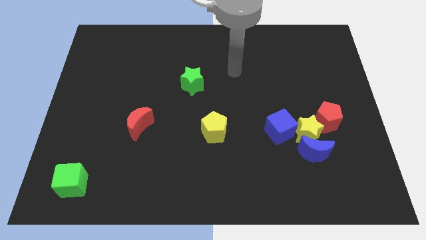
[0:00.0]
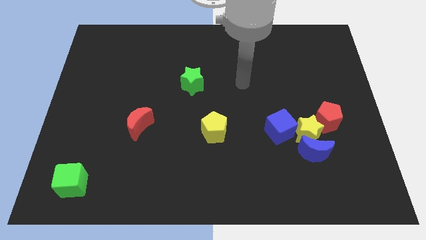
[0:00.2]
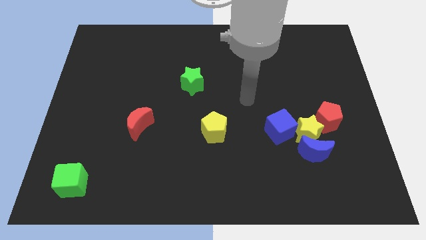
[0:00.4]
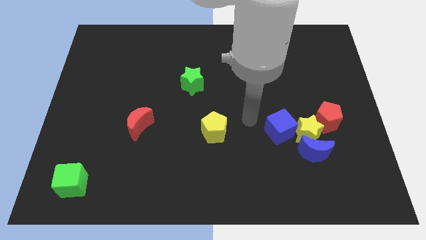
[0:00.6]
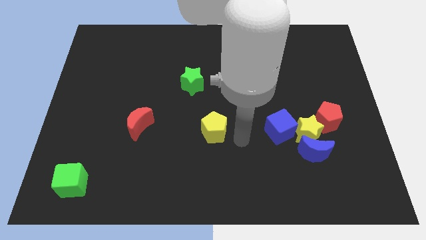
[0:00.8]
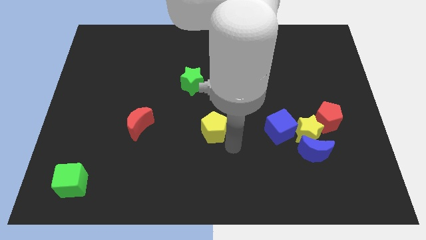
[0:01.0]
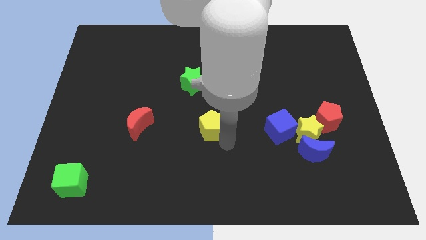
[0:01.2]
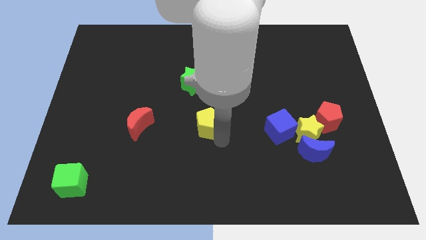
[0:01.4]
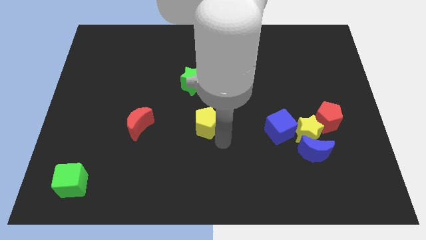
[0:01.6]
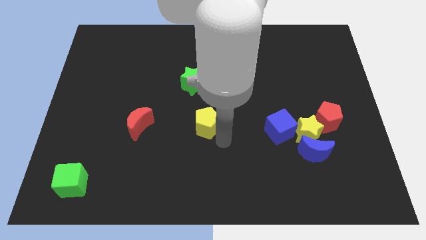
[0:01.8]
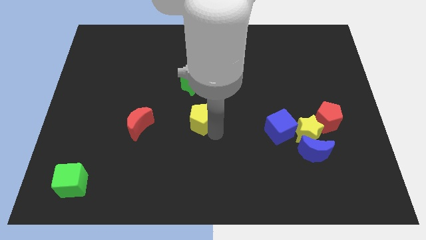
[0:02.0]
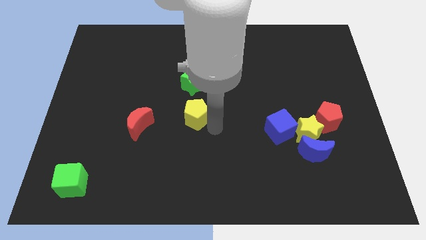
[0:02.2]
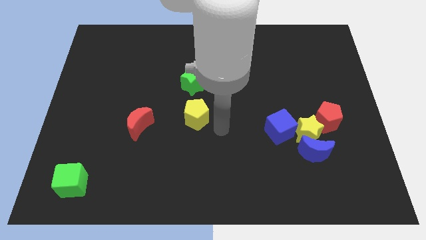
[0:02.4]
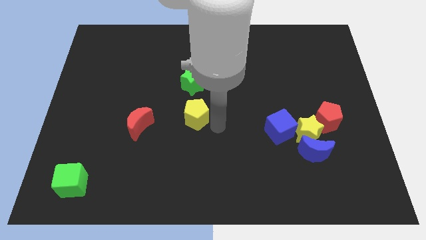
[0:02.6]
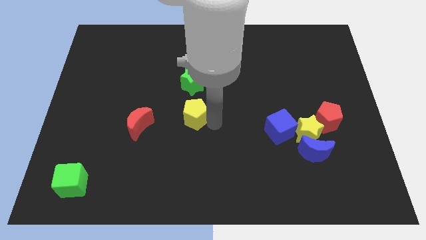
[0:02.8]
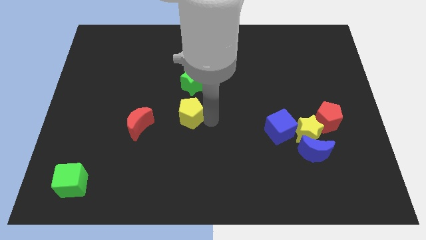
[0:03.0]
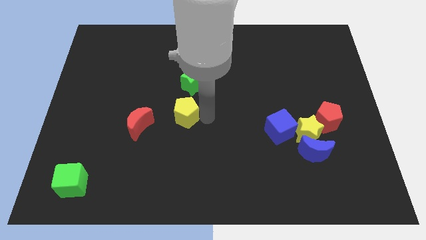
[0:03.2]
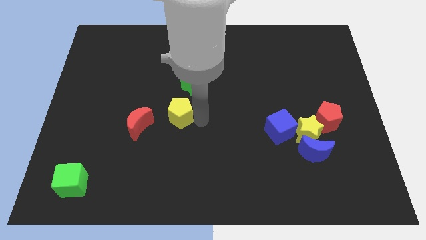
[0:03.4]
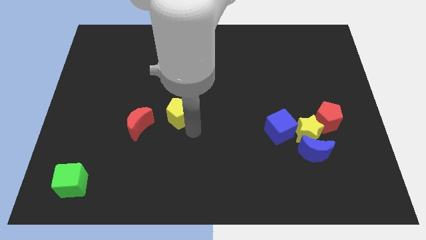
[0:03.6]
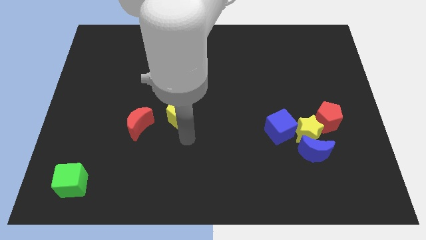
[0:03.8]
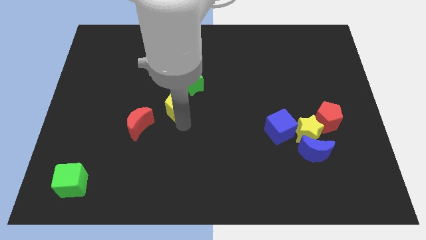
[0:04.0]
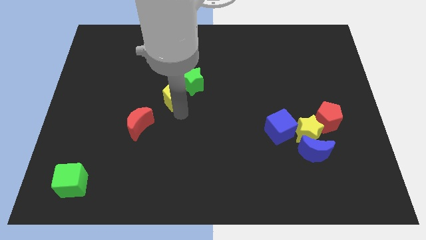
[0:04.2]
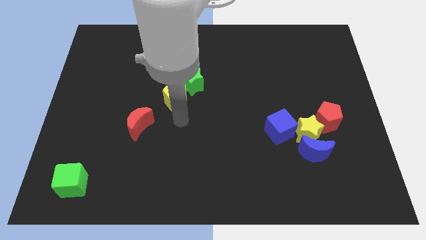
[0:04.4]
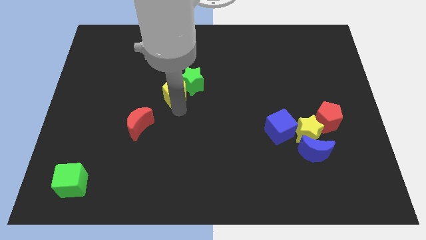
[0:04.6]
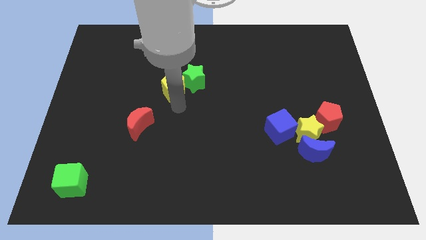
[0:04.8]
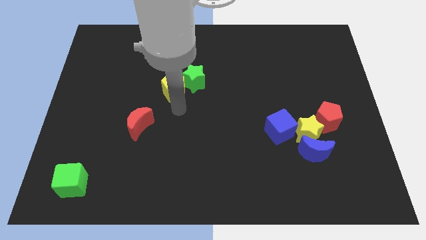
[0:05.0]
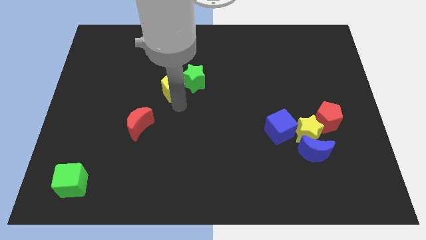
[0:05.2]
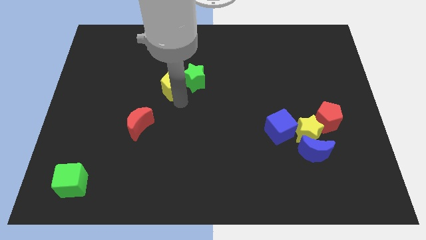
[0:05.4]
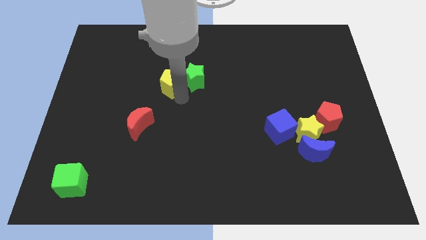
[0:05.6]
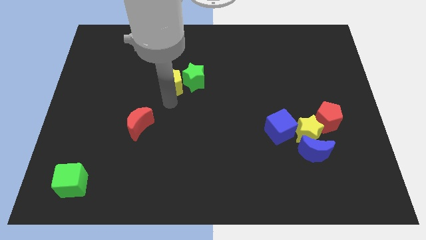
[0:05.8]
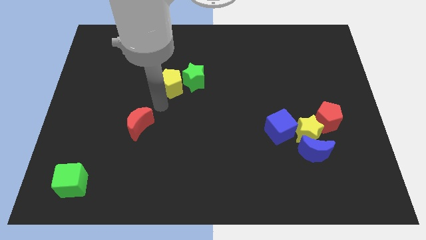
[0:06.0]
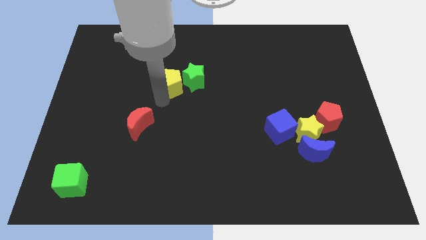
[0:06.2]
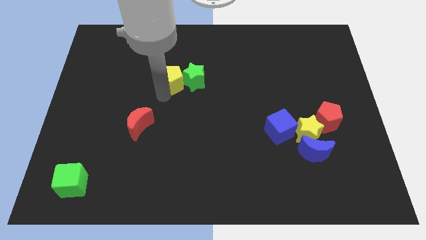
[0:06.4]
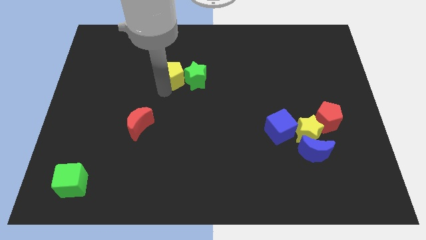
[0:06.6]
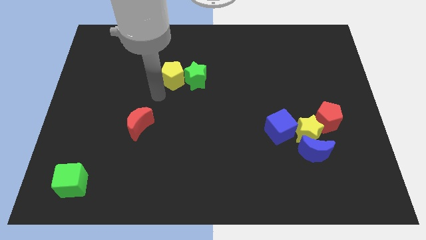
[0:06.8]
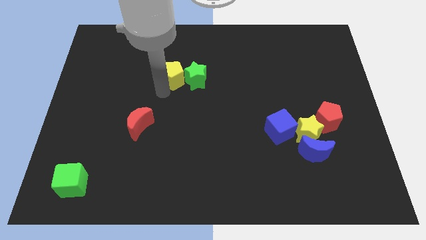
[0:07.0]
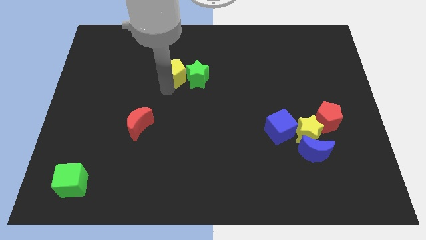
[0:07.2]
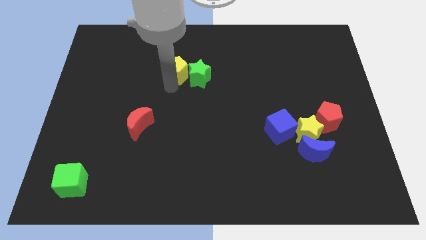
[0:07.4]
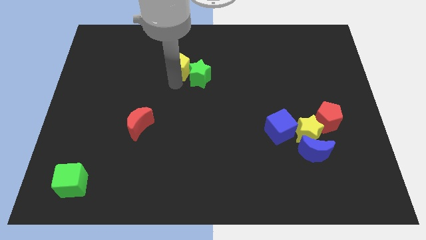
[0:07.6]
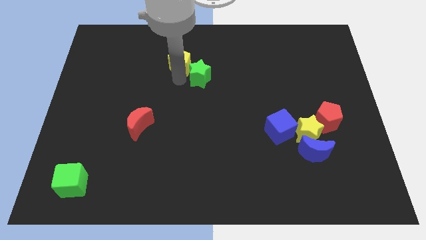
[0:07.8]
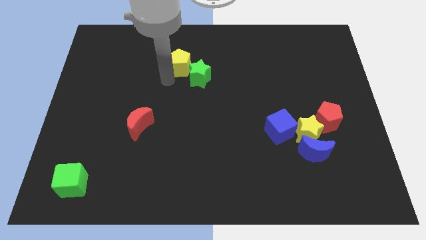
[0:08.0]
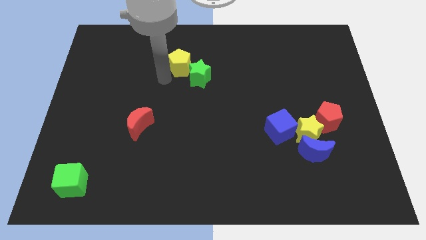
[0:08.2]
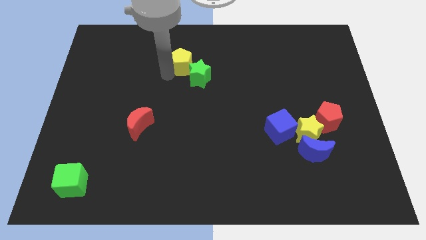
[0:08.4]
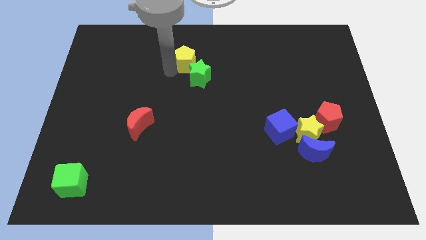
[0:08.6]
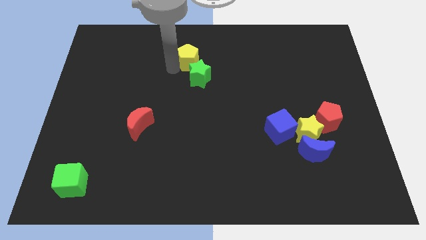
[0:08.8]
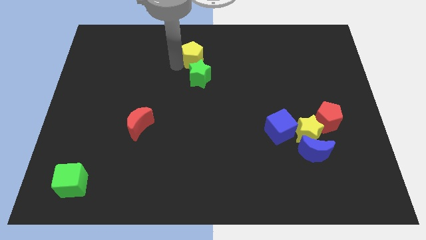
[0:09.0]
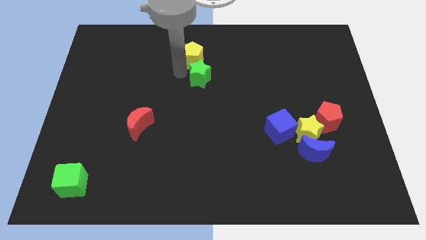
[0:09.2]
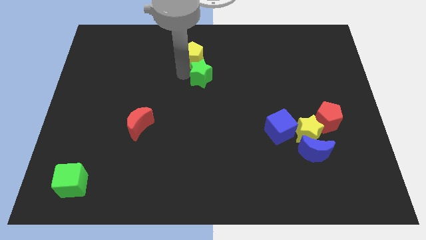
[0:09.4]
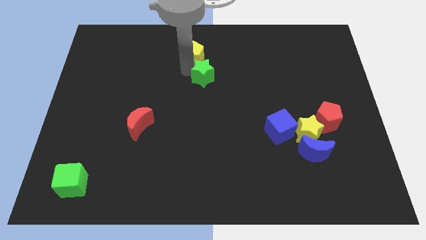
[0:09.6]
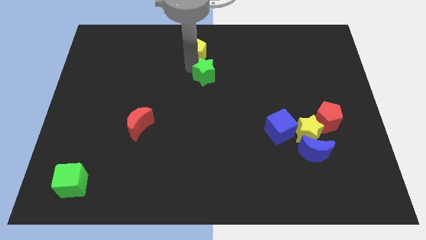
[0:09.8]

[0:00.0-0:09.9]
move the yellow pentagon to the top

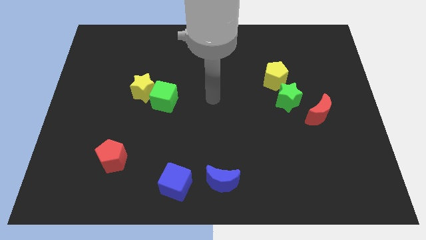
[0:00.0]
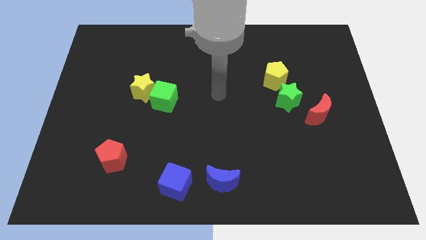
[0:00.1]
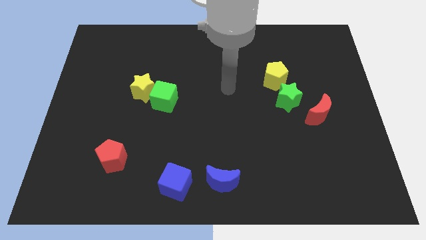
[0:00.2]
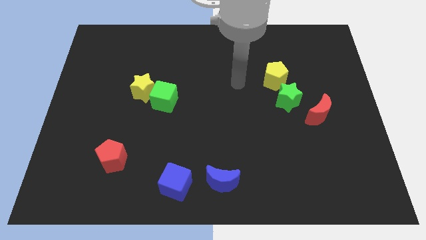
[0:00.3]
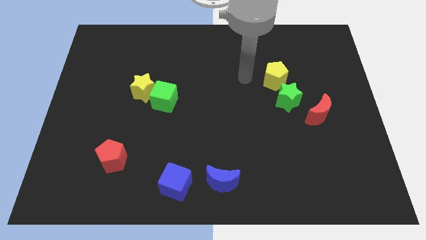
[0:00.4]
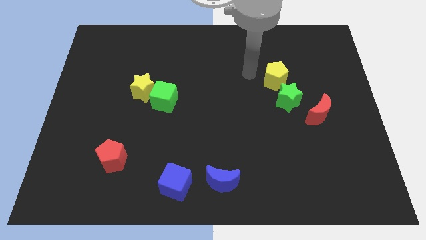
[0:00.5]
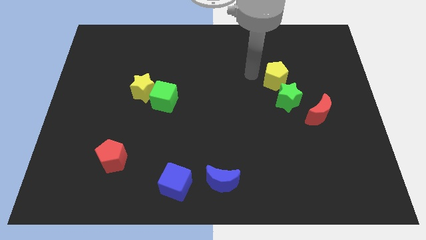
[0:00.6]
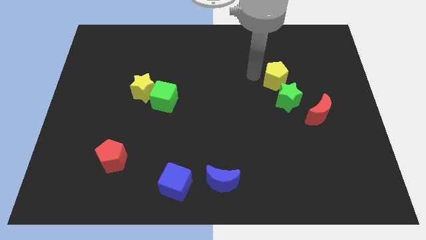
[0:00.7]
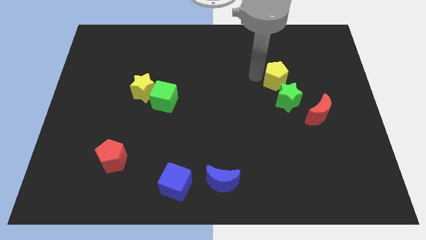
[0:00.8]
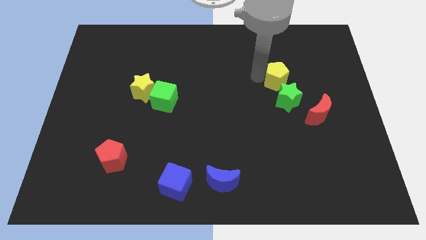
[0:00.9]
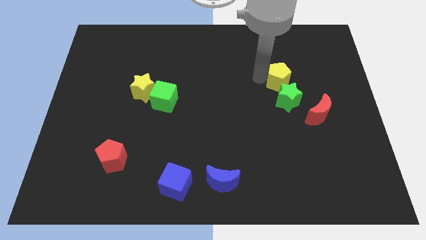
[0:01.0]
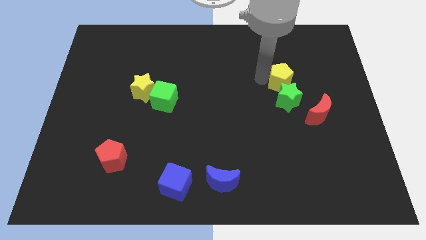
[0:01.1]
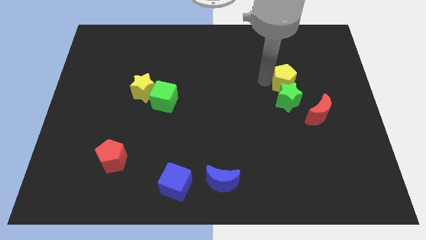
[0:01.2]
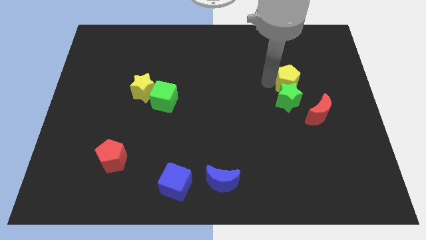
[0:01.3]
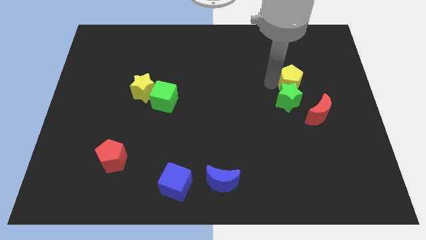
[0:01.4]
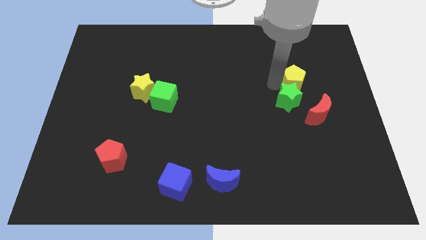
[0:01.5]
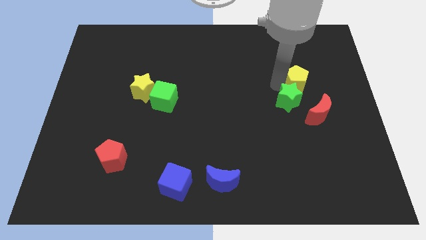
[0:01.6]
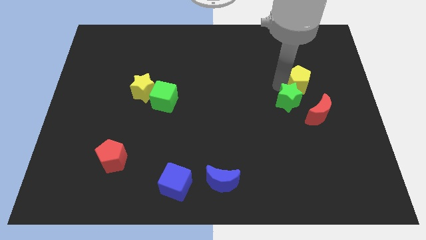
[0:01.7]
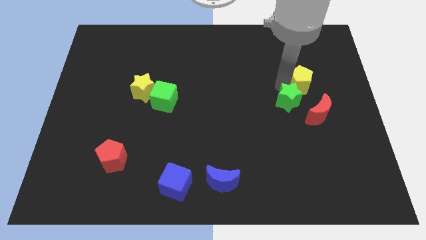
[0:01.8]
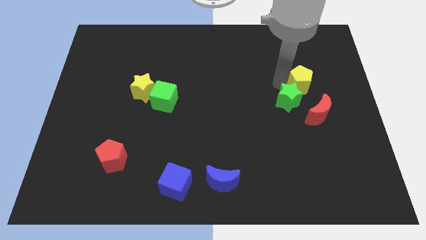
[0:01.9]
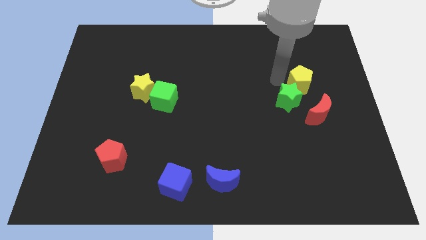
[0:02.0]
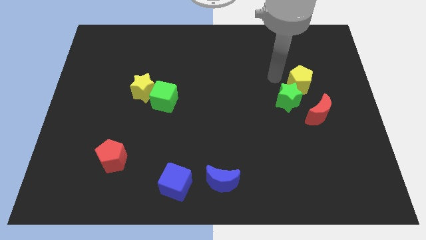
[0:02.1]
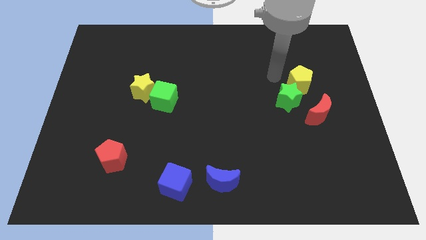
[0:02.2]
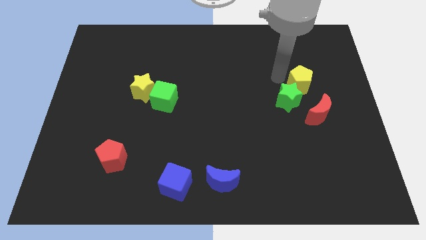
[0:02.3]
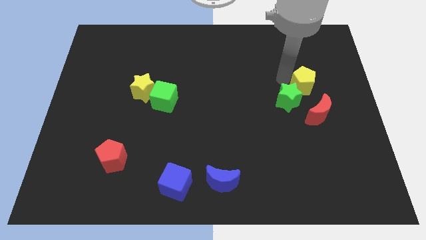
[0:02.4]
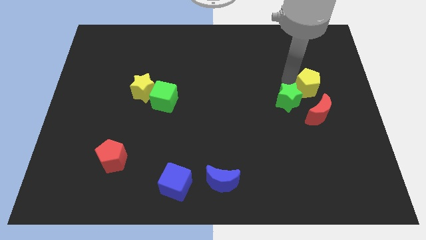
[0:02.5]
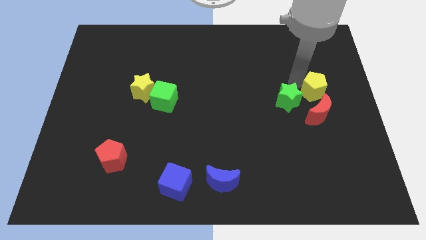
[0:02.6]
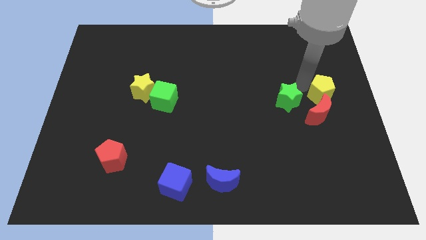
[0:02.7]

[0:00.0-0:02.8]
put the yellow pentagon to the right side
